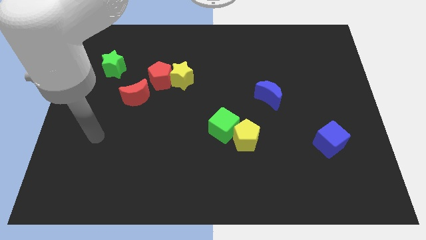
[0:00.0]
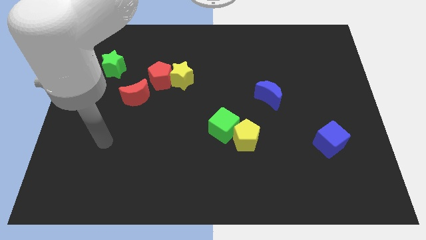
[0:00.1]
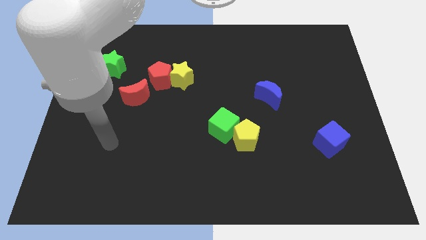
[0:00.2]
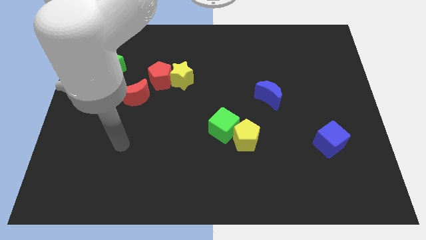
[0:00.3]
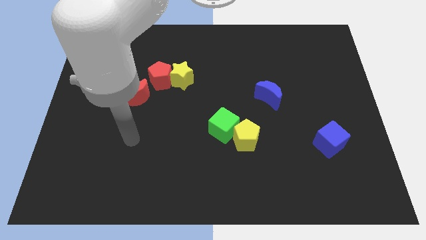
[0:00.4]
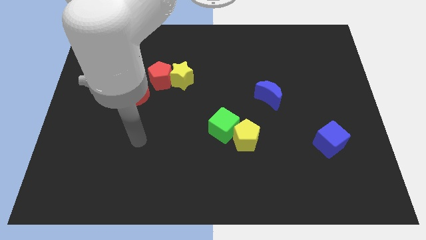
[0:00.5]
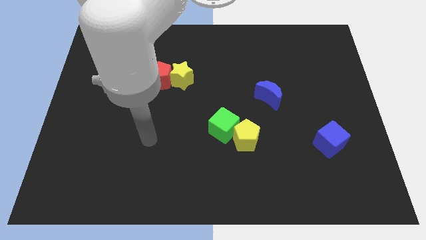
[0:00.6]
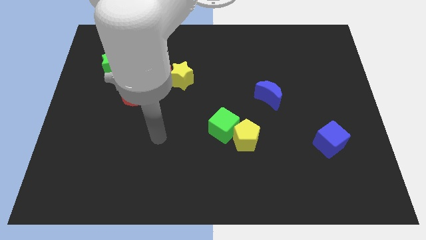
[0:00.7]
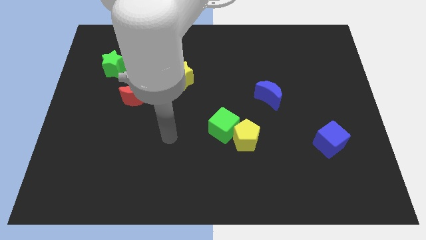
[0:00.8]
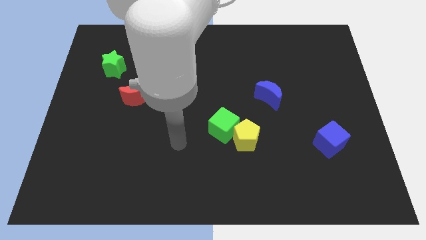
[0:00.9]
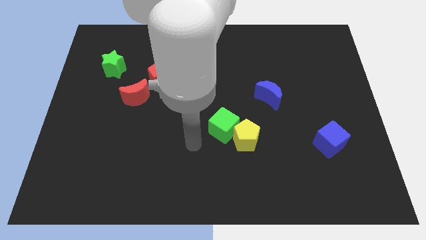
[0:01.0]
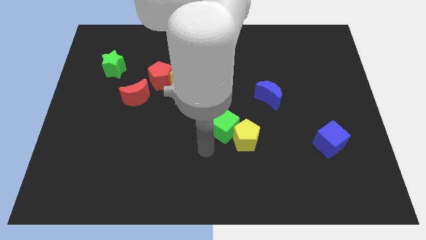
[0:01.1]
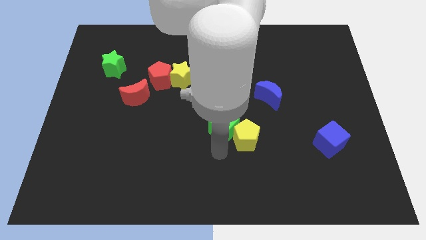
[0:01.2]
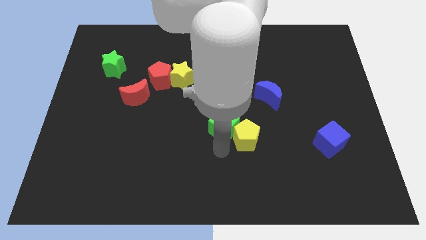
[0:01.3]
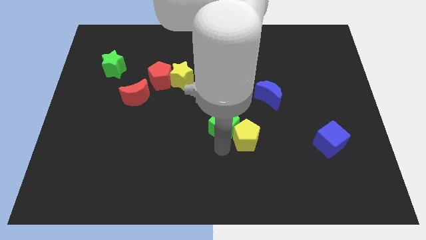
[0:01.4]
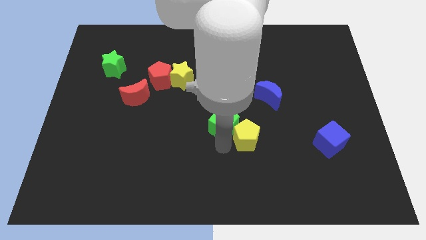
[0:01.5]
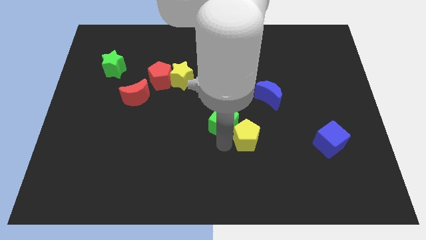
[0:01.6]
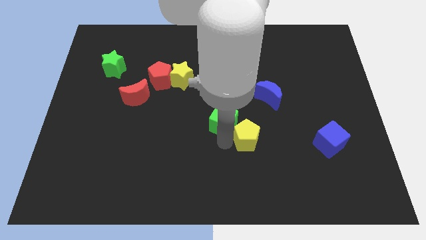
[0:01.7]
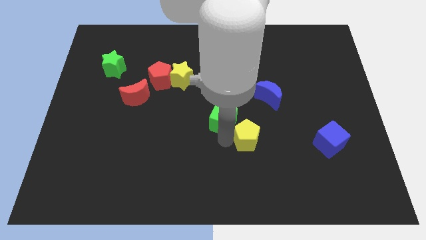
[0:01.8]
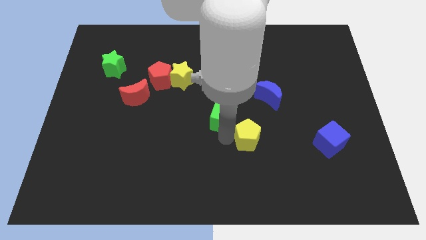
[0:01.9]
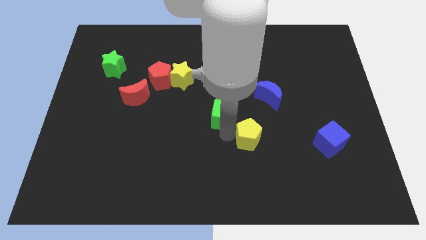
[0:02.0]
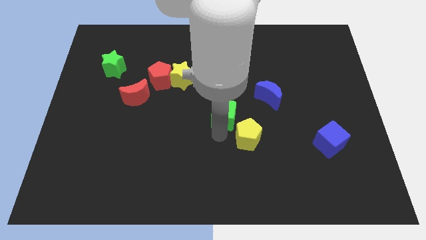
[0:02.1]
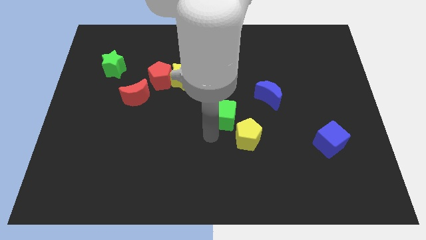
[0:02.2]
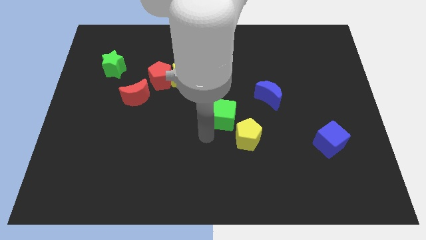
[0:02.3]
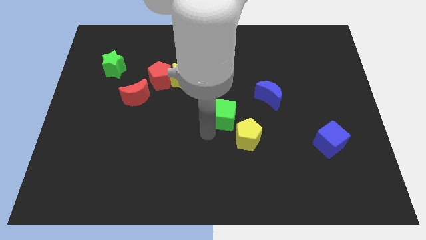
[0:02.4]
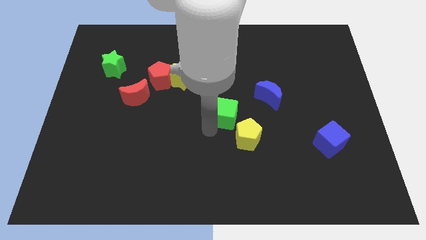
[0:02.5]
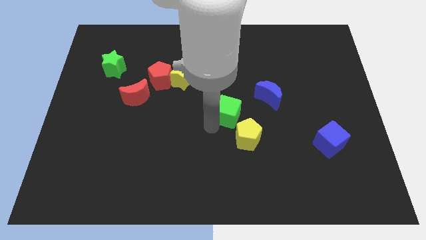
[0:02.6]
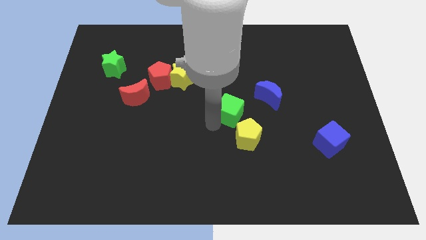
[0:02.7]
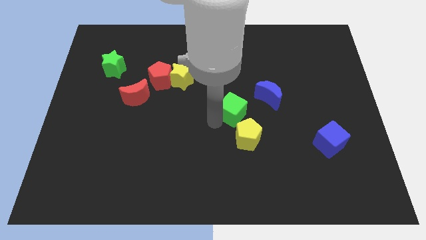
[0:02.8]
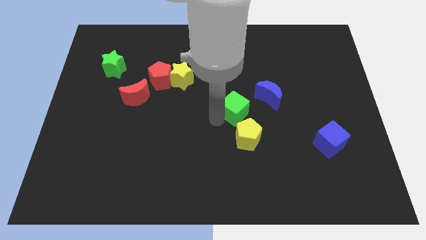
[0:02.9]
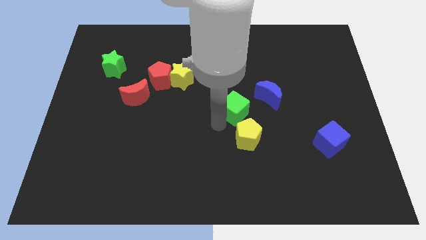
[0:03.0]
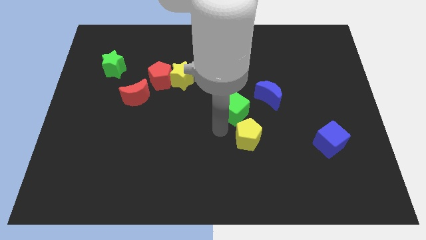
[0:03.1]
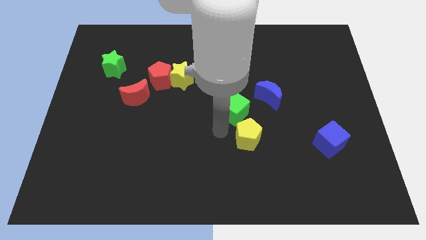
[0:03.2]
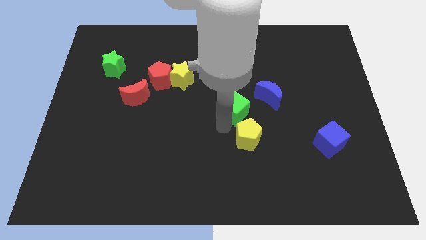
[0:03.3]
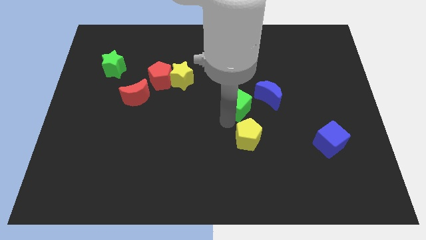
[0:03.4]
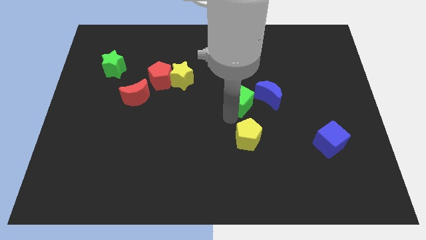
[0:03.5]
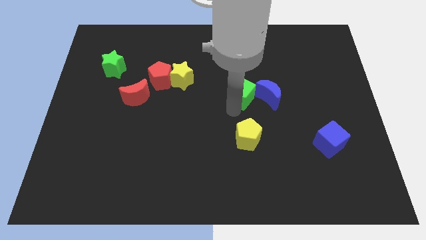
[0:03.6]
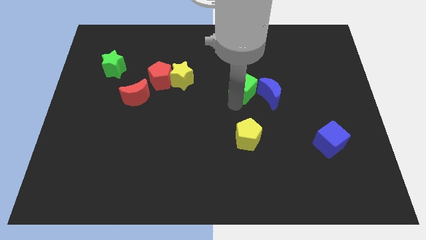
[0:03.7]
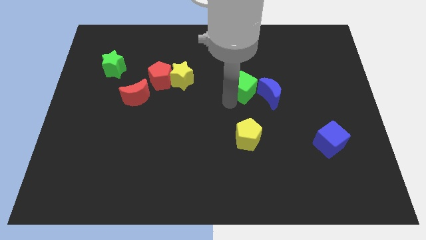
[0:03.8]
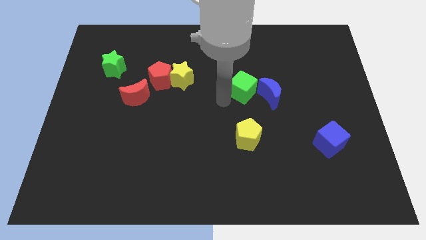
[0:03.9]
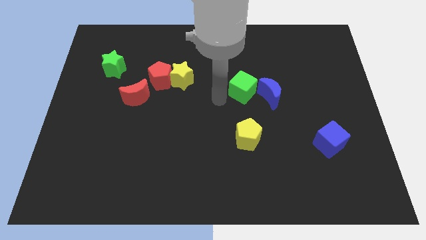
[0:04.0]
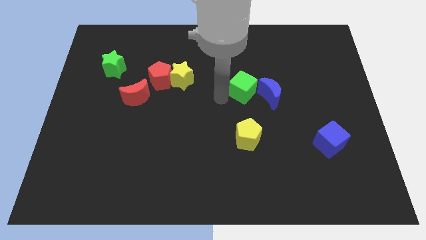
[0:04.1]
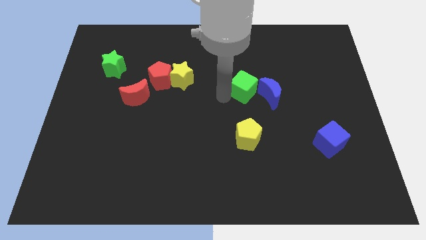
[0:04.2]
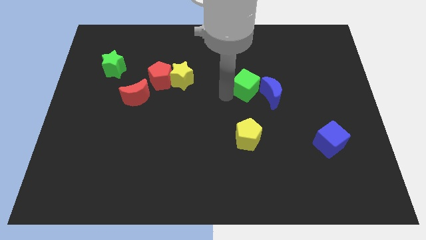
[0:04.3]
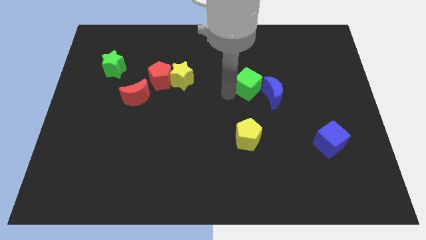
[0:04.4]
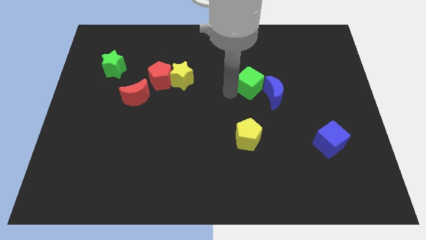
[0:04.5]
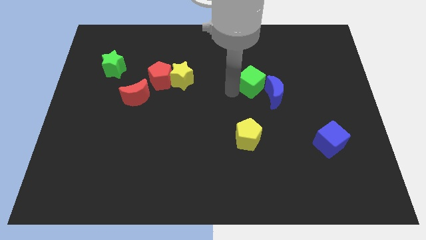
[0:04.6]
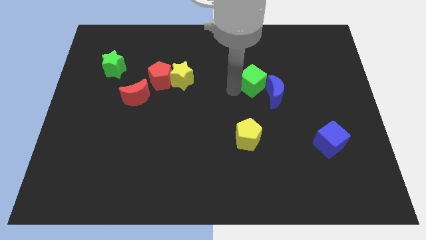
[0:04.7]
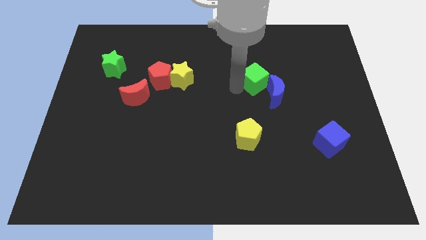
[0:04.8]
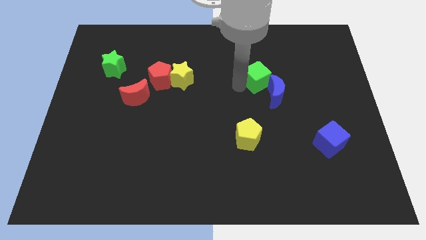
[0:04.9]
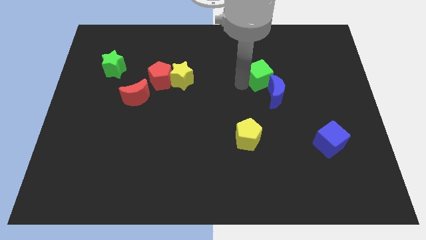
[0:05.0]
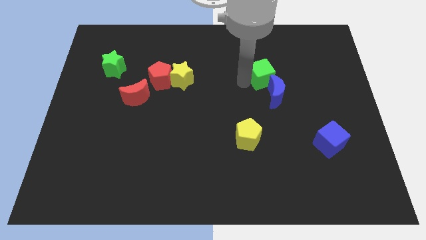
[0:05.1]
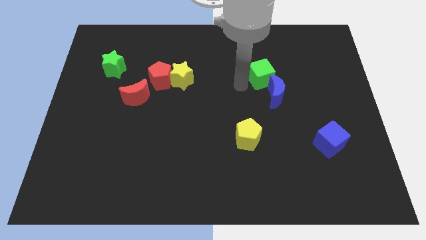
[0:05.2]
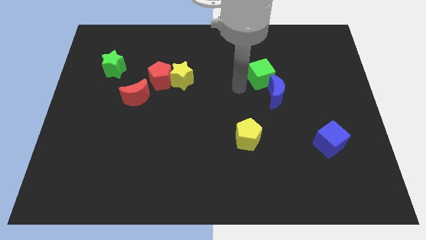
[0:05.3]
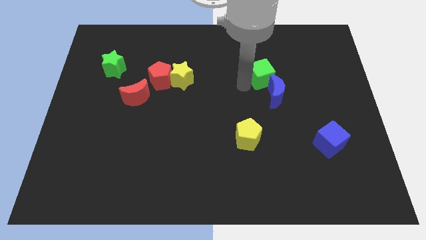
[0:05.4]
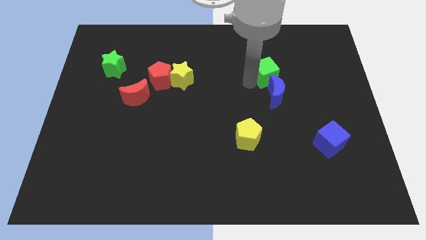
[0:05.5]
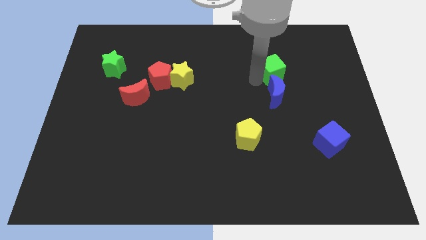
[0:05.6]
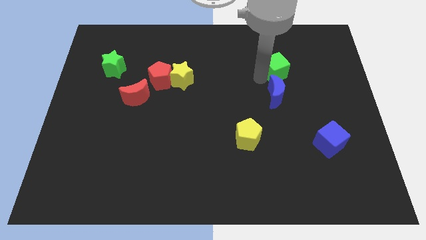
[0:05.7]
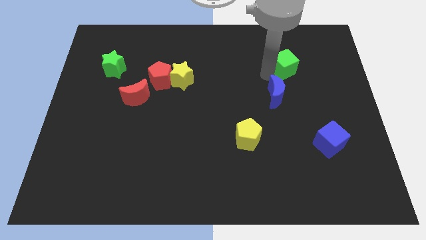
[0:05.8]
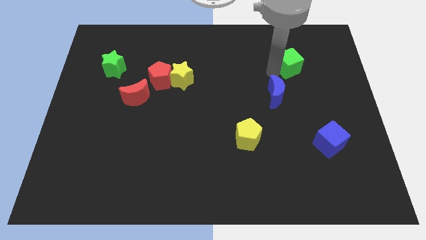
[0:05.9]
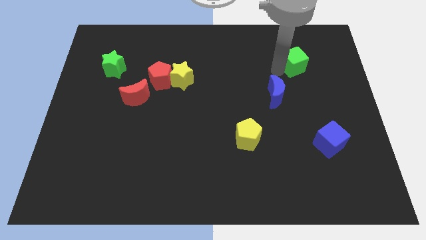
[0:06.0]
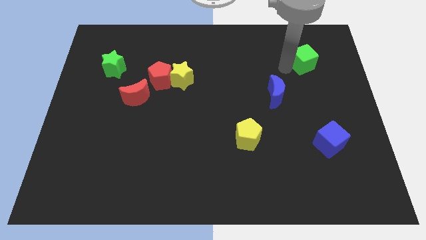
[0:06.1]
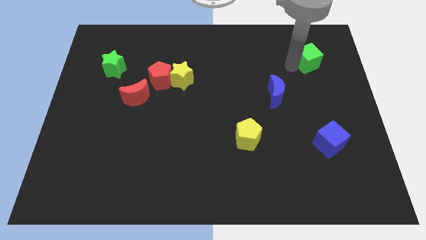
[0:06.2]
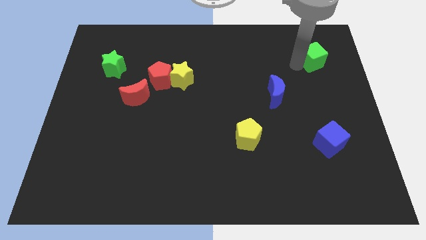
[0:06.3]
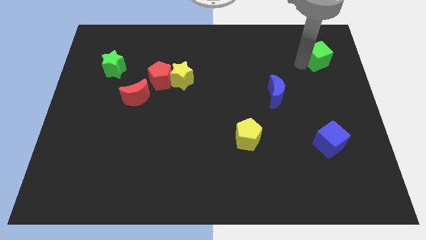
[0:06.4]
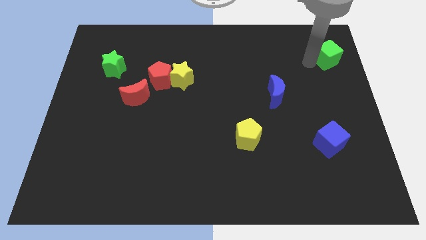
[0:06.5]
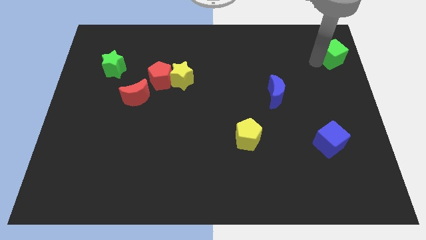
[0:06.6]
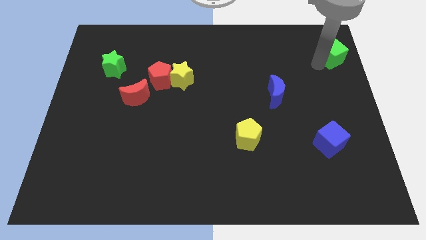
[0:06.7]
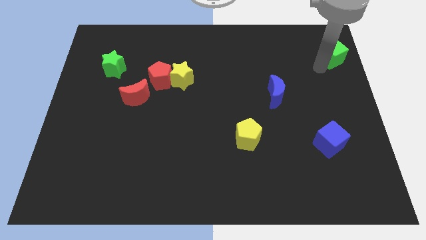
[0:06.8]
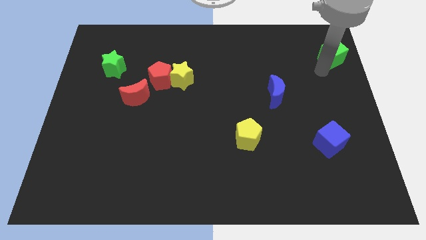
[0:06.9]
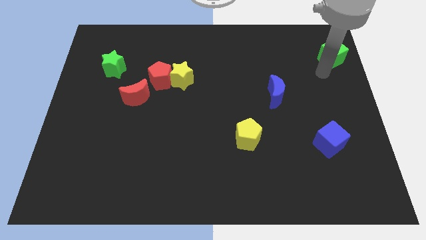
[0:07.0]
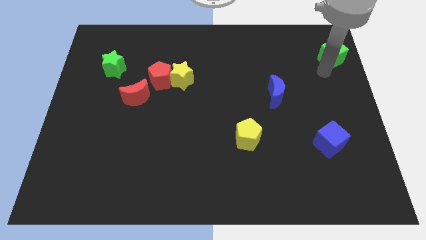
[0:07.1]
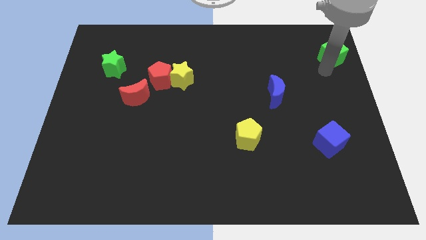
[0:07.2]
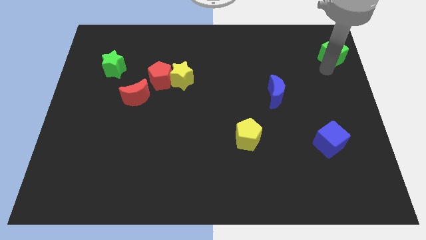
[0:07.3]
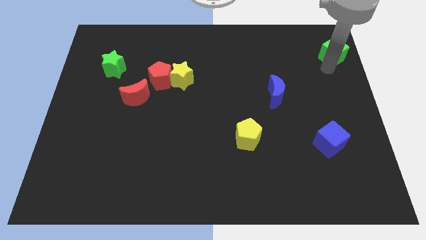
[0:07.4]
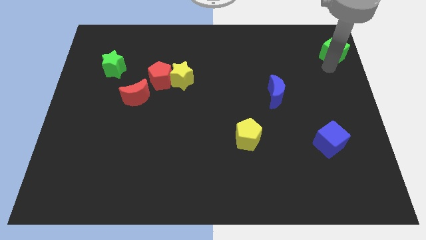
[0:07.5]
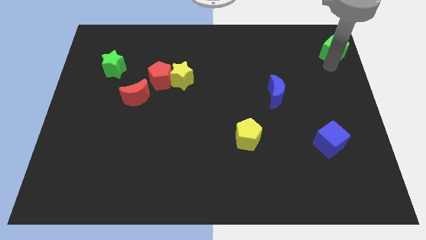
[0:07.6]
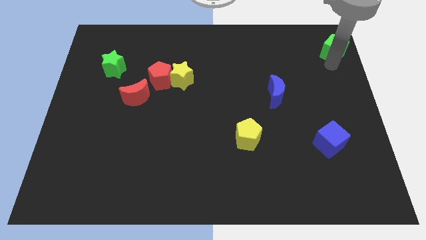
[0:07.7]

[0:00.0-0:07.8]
slide the green cube to the top right of the board
